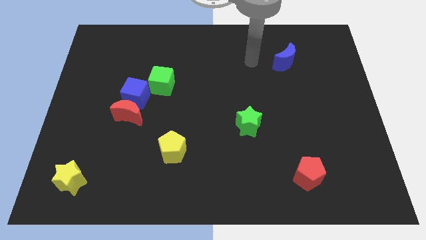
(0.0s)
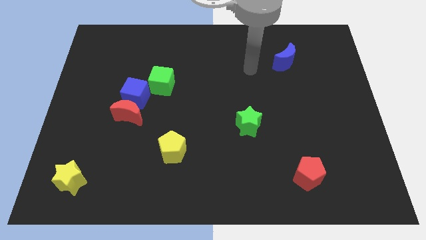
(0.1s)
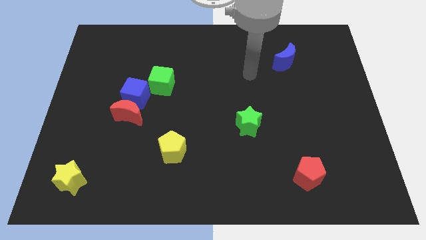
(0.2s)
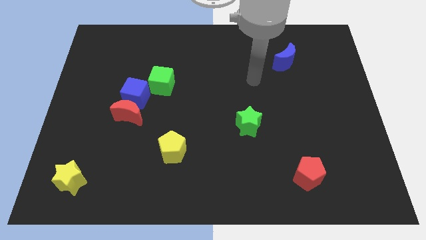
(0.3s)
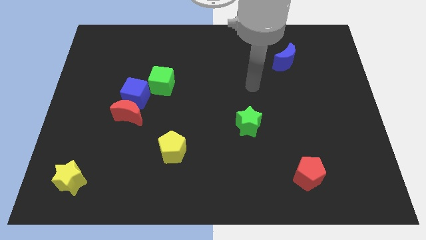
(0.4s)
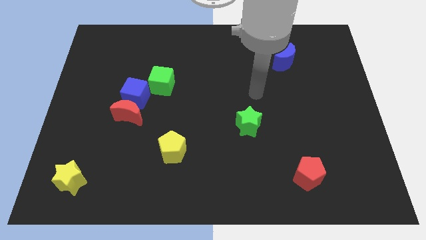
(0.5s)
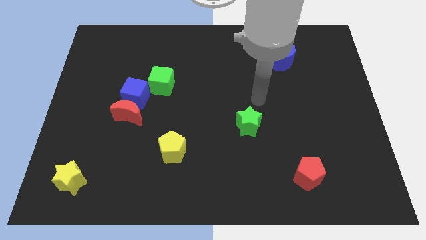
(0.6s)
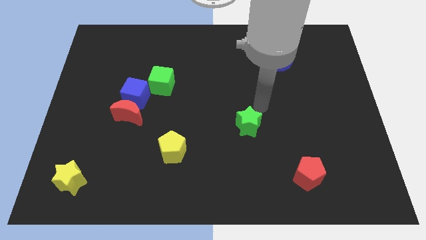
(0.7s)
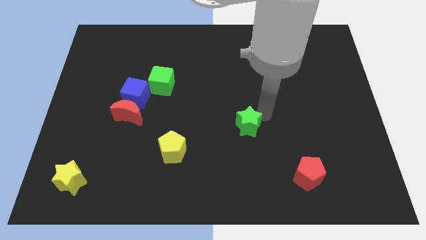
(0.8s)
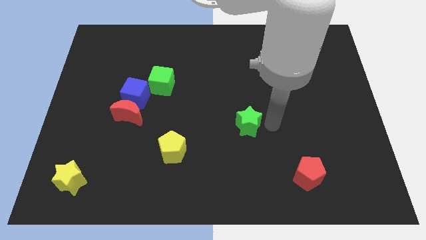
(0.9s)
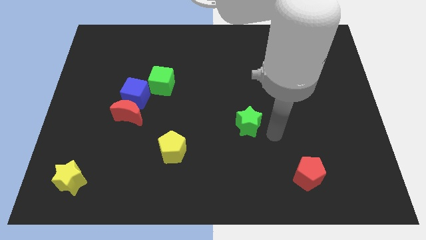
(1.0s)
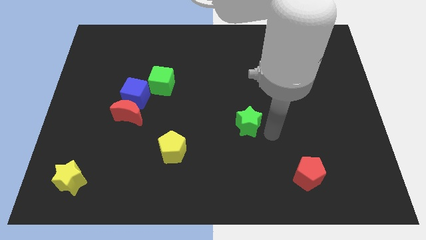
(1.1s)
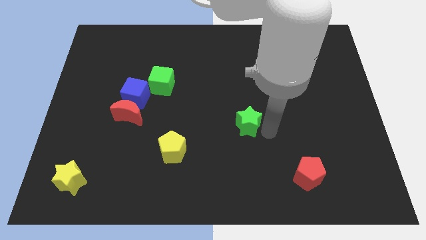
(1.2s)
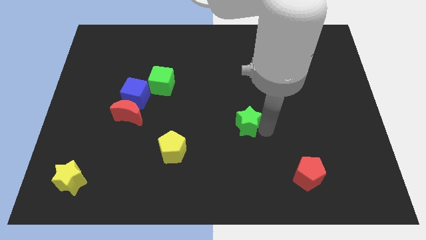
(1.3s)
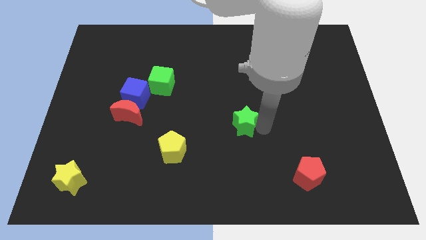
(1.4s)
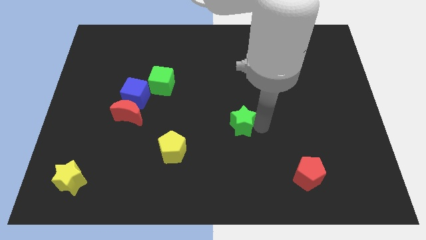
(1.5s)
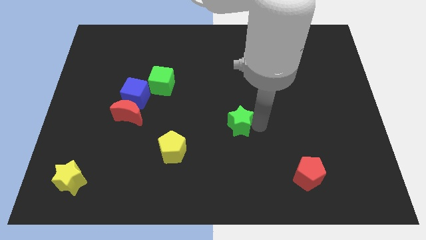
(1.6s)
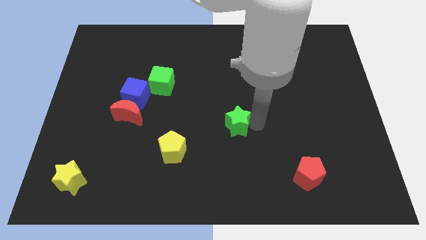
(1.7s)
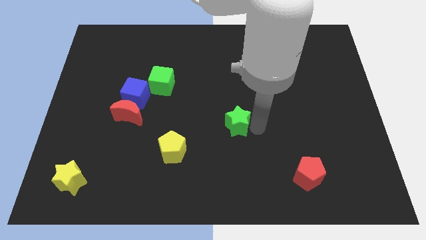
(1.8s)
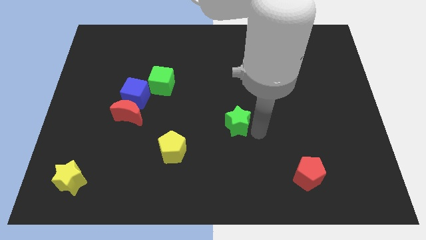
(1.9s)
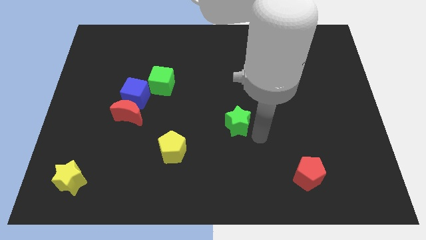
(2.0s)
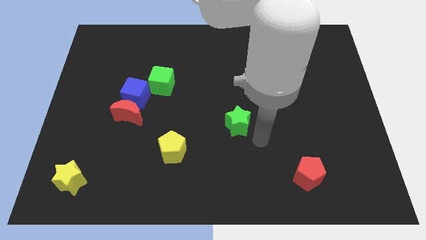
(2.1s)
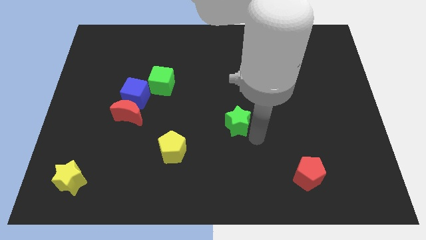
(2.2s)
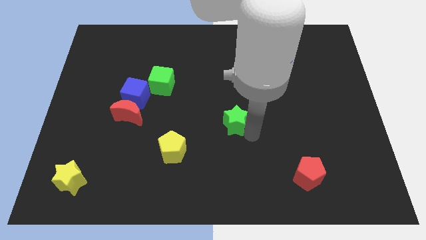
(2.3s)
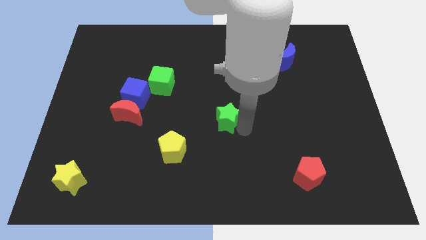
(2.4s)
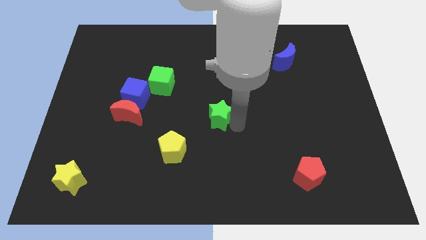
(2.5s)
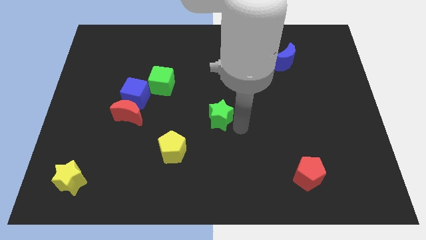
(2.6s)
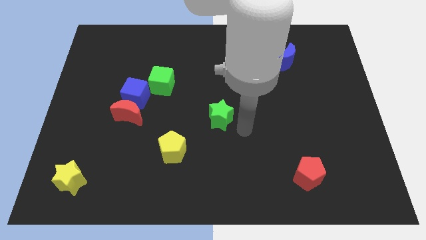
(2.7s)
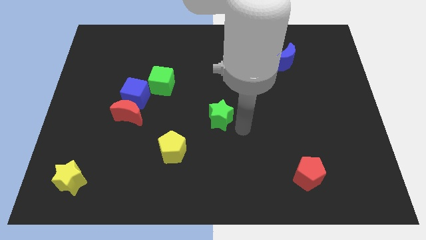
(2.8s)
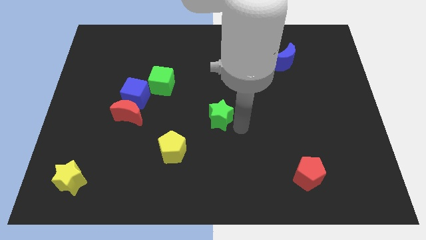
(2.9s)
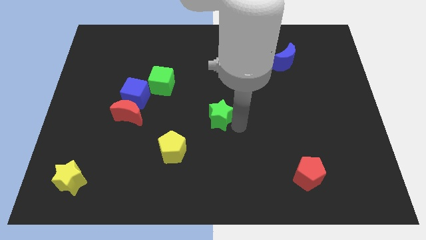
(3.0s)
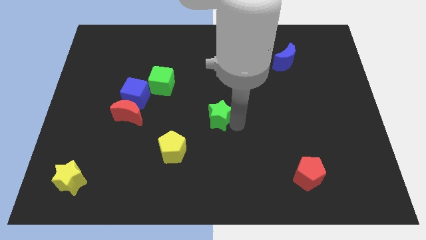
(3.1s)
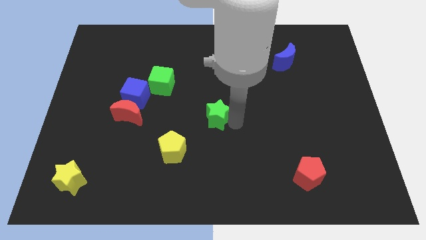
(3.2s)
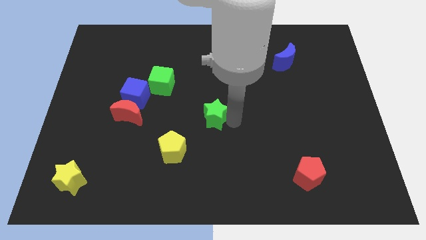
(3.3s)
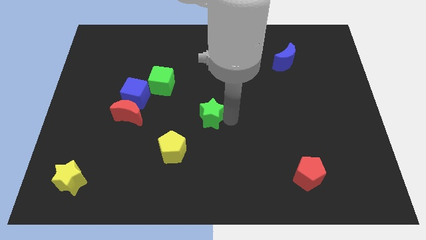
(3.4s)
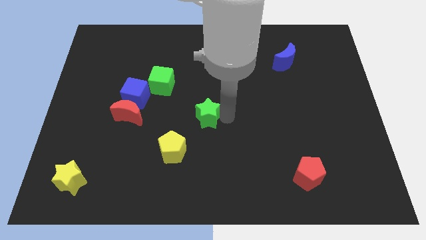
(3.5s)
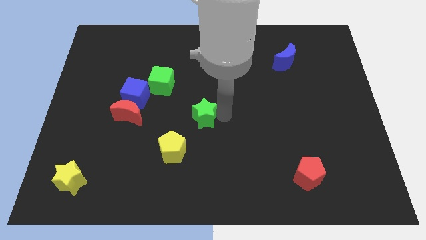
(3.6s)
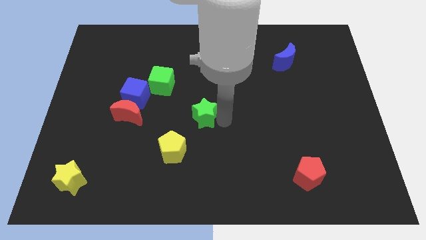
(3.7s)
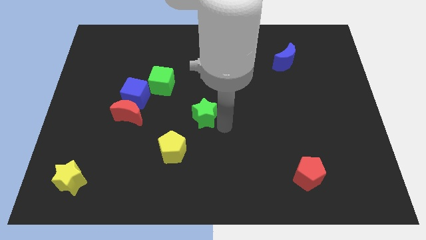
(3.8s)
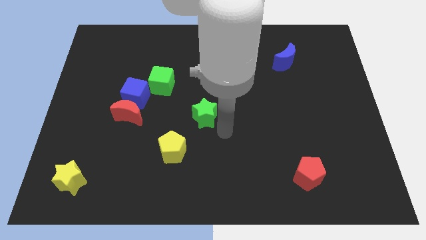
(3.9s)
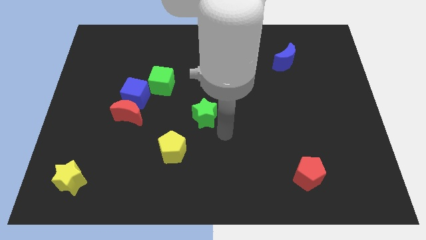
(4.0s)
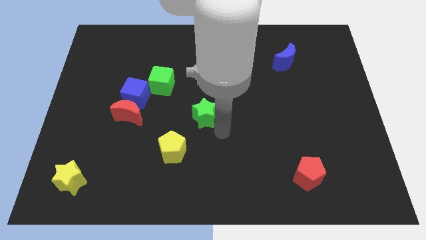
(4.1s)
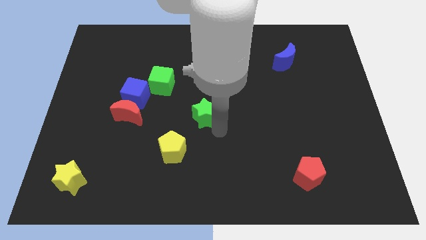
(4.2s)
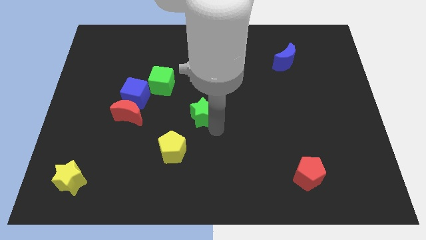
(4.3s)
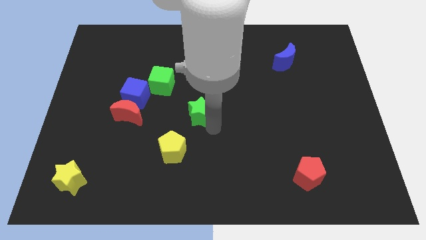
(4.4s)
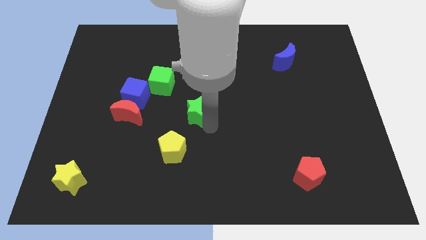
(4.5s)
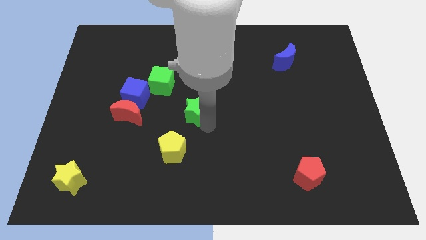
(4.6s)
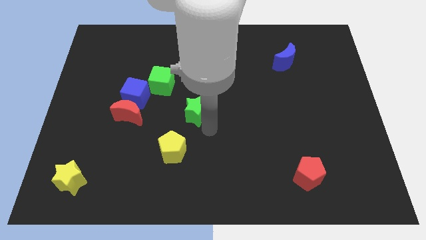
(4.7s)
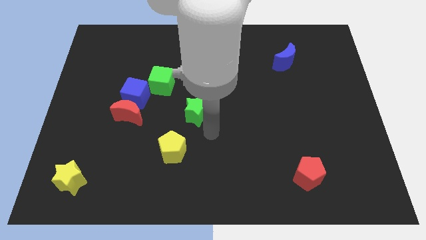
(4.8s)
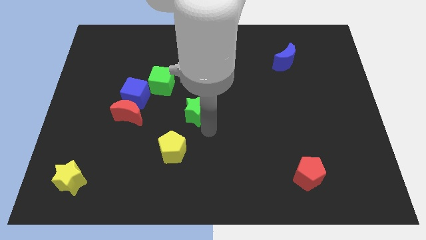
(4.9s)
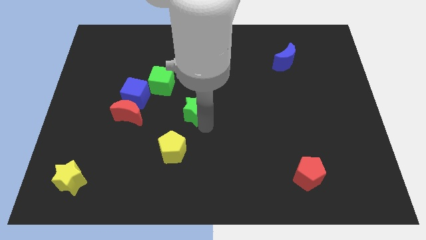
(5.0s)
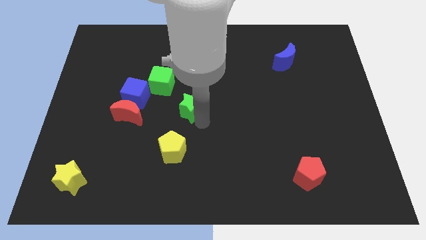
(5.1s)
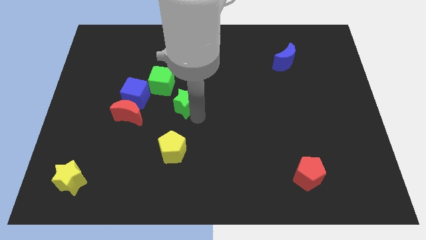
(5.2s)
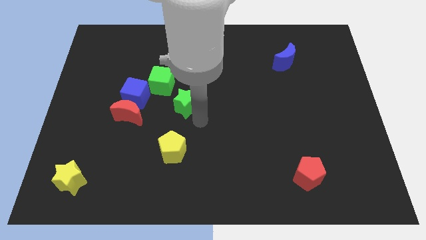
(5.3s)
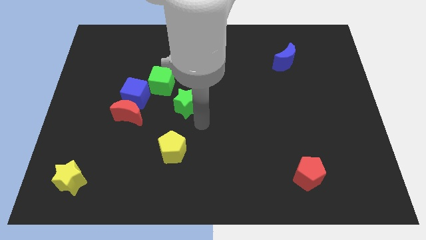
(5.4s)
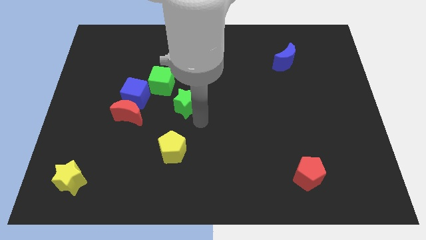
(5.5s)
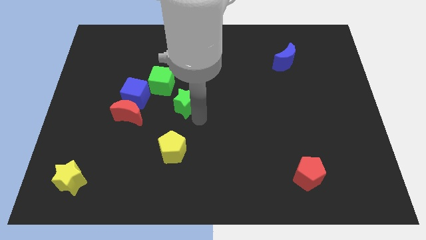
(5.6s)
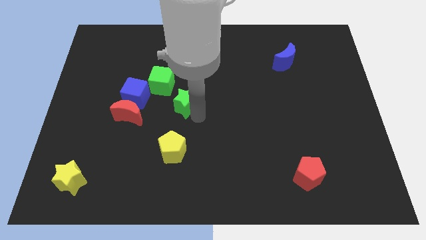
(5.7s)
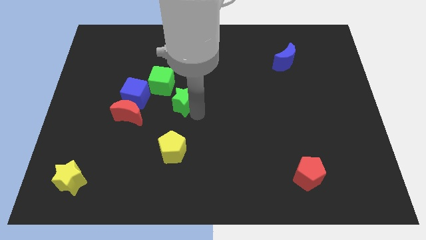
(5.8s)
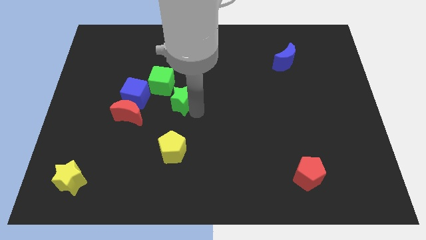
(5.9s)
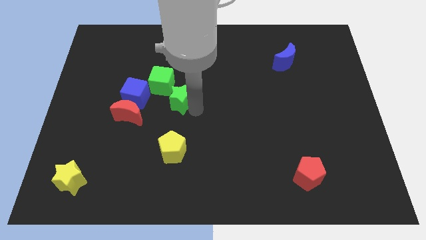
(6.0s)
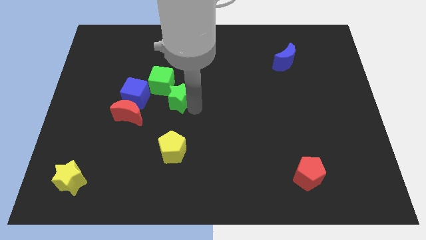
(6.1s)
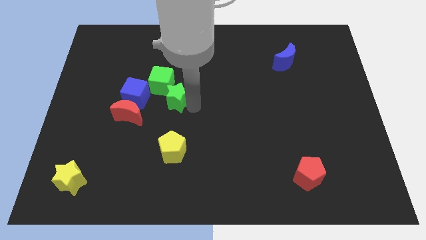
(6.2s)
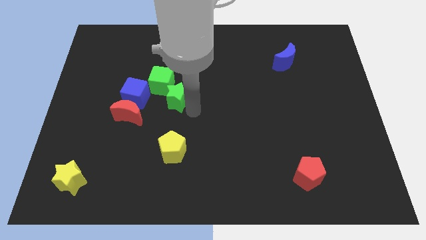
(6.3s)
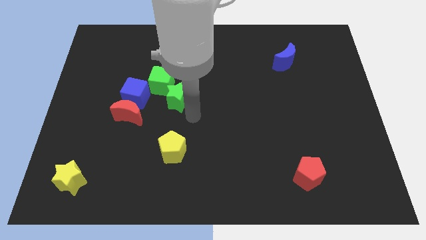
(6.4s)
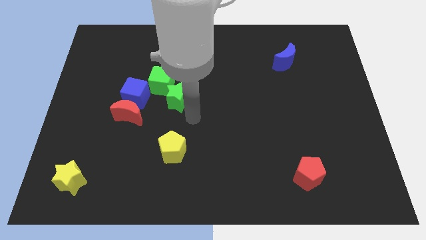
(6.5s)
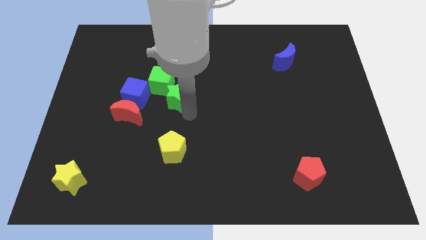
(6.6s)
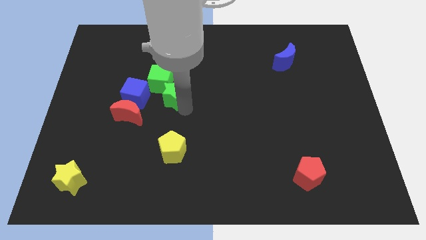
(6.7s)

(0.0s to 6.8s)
move the green star next to the green cube
